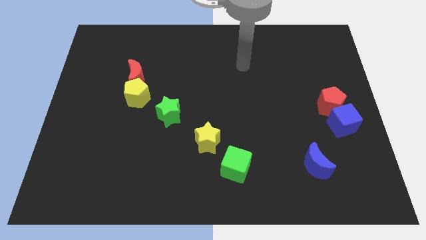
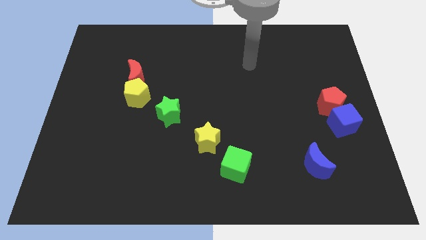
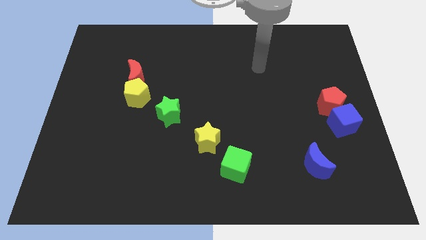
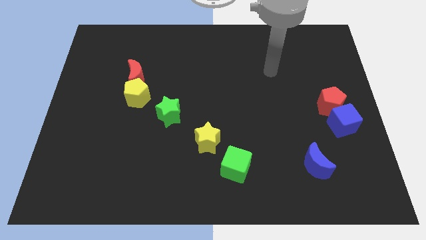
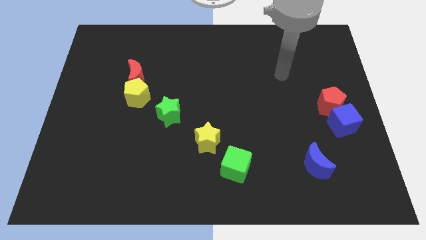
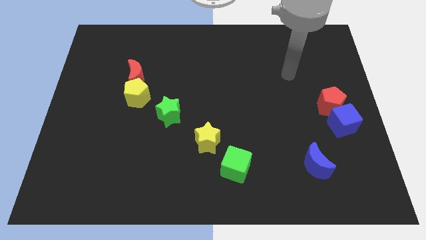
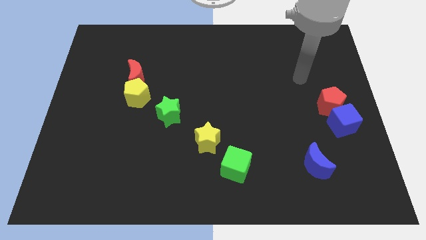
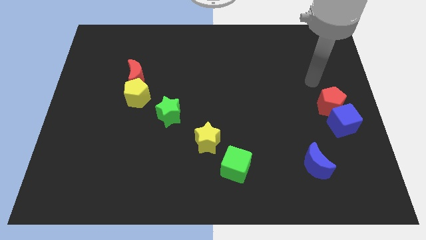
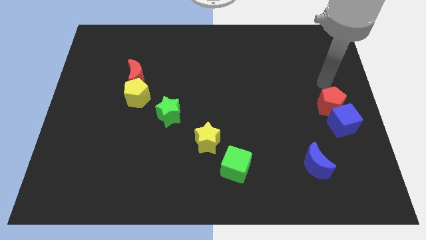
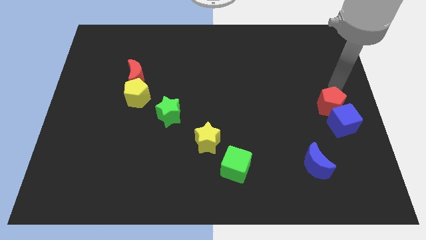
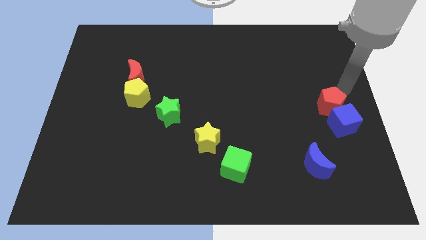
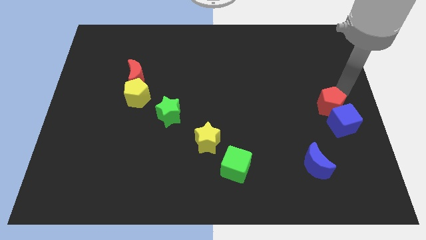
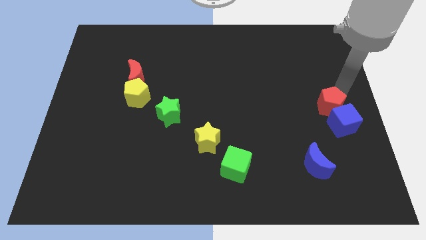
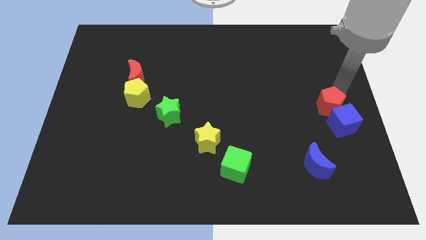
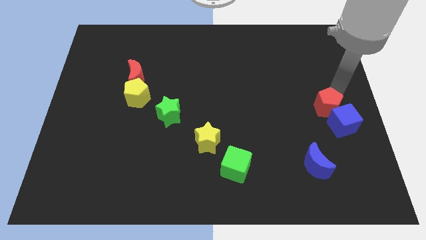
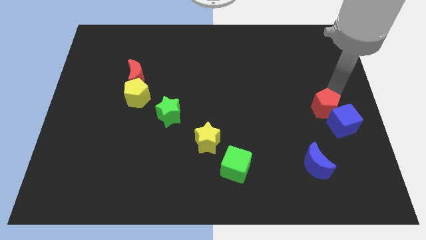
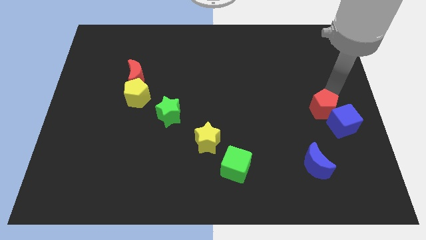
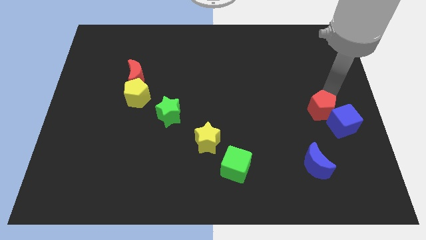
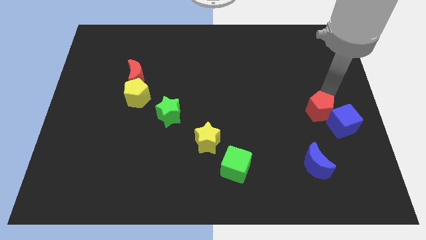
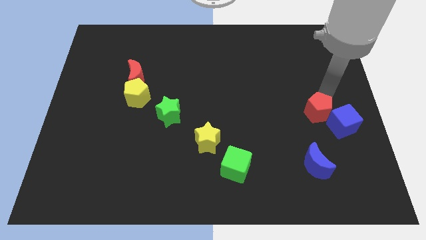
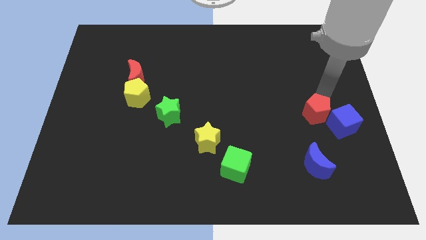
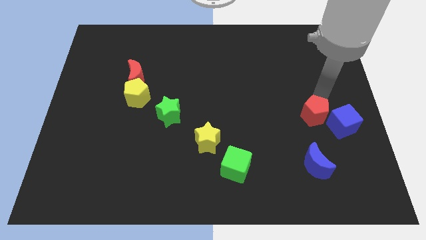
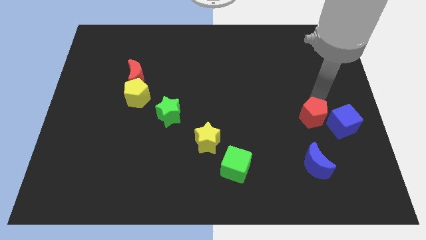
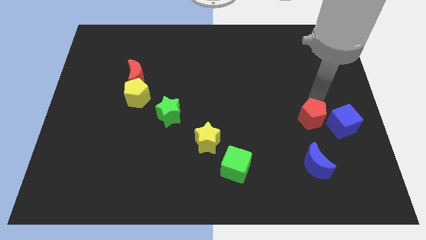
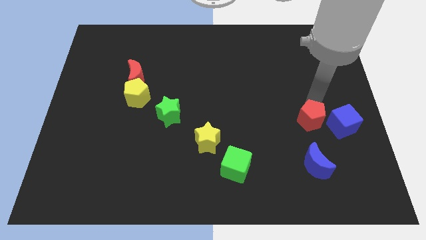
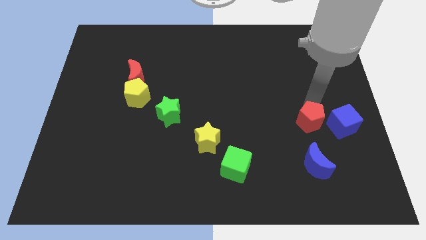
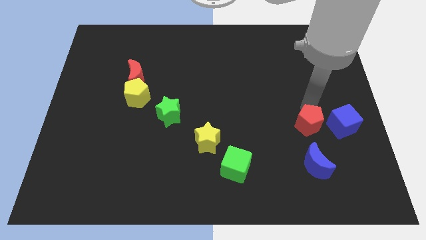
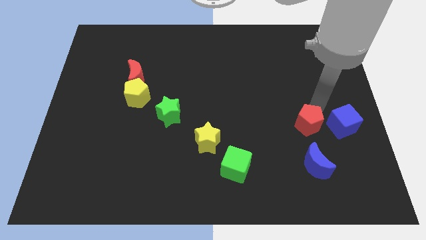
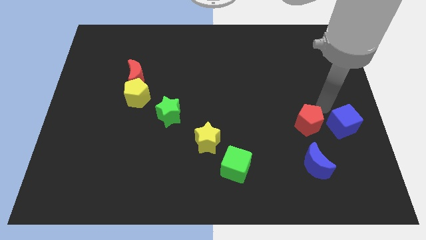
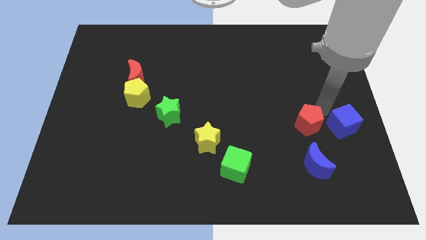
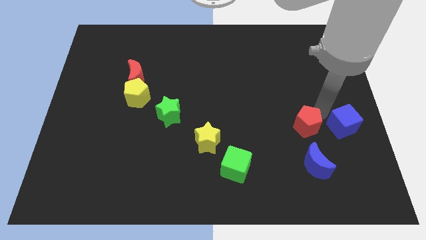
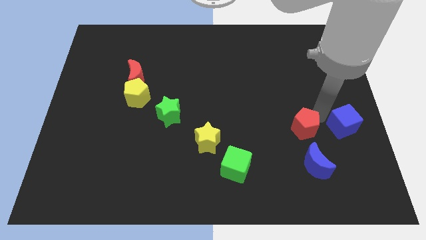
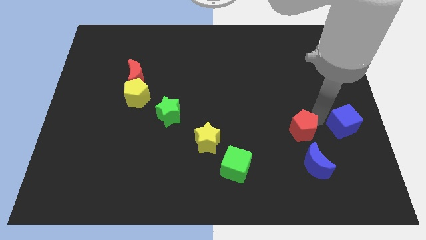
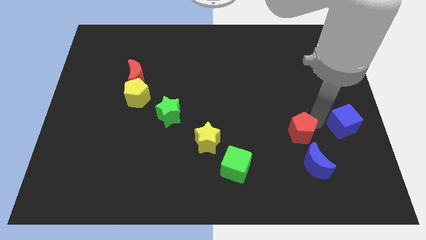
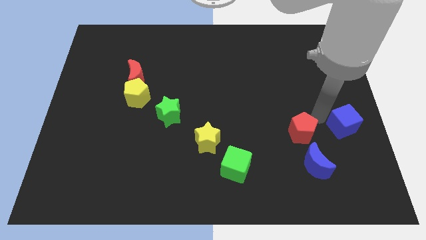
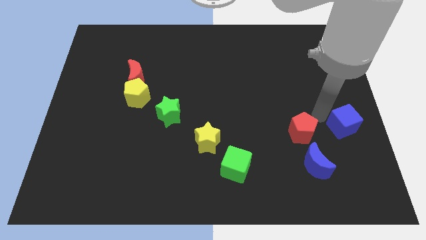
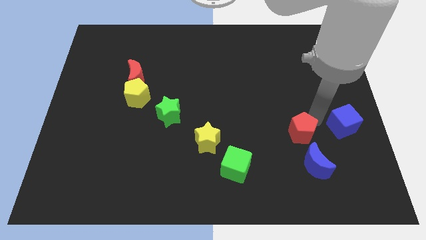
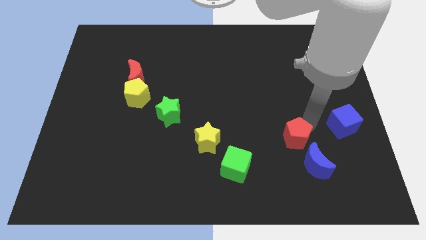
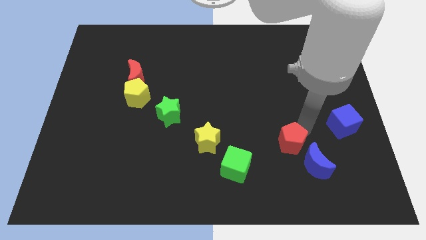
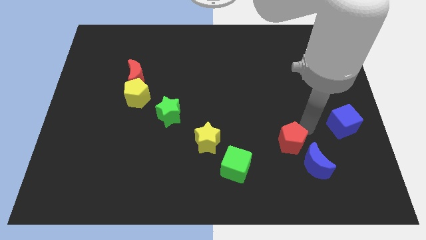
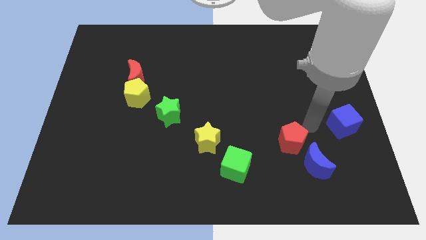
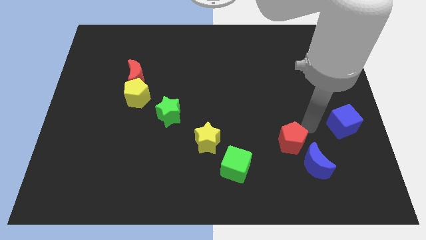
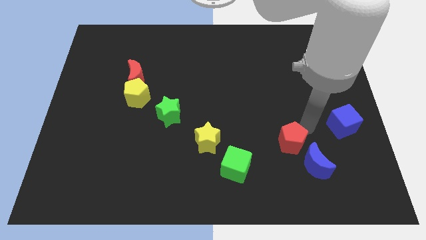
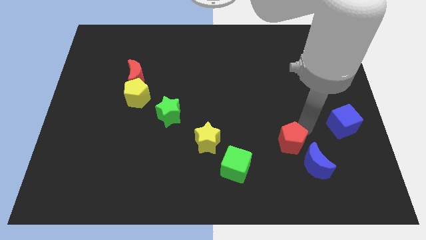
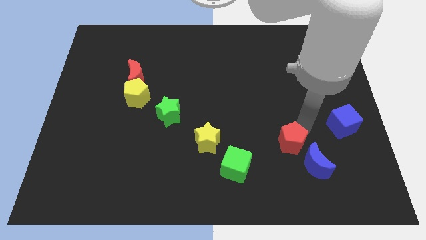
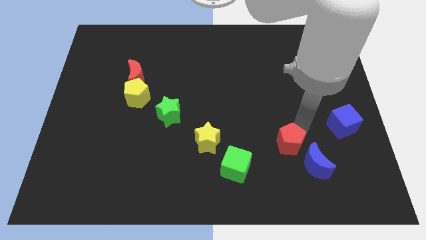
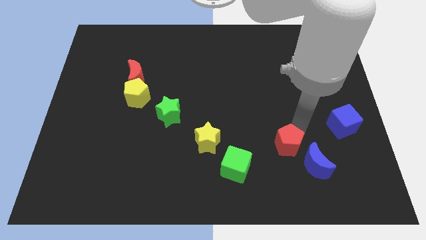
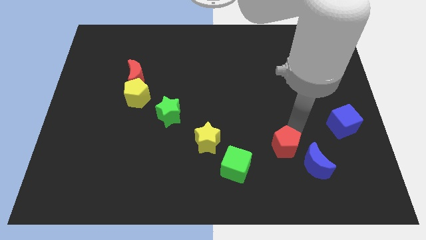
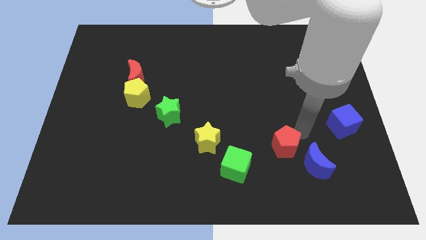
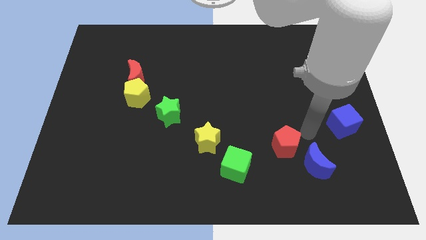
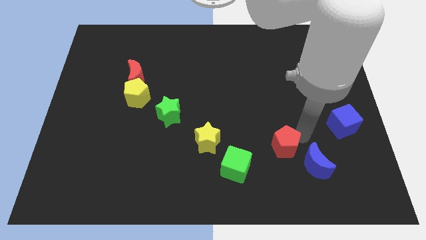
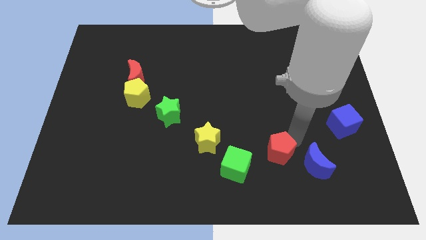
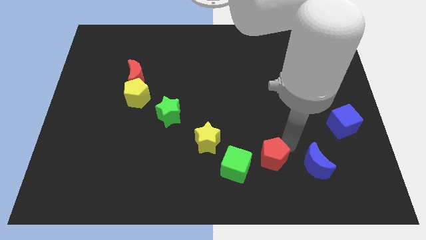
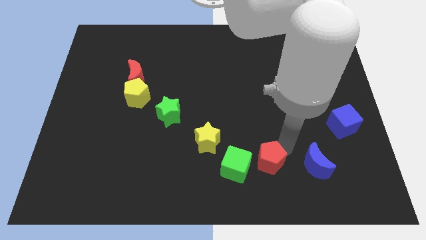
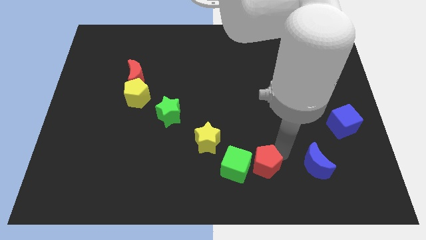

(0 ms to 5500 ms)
put the red pentagon to the green cube

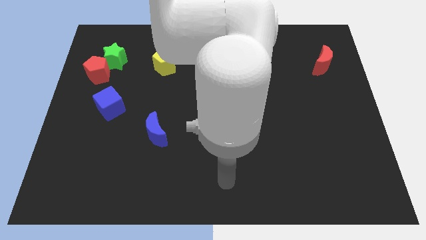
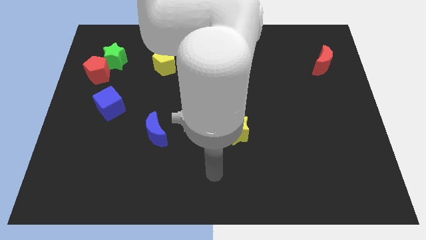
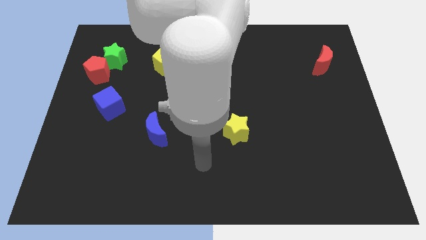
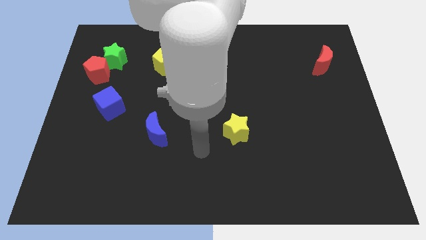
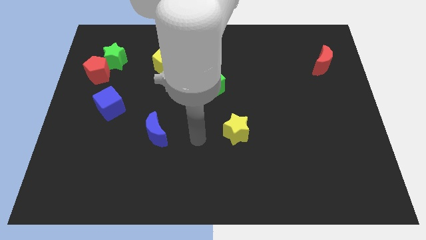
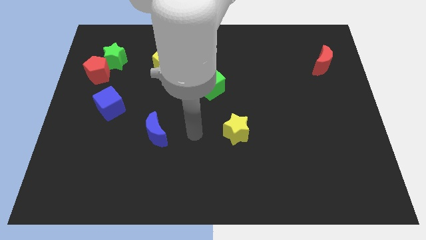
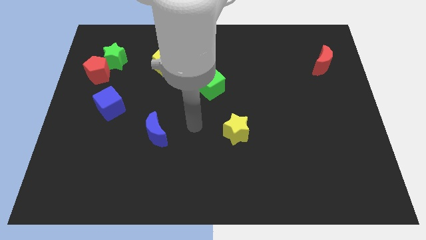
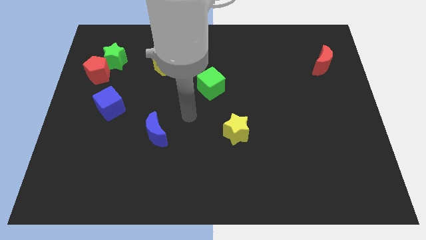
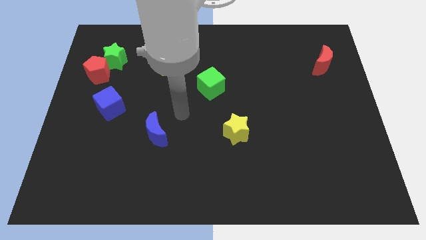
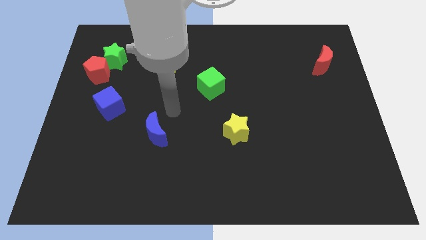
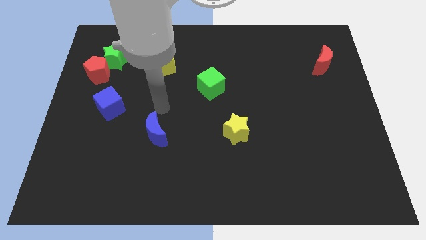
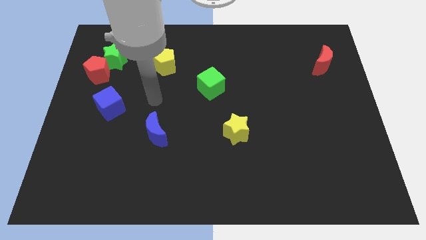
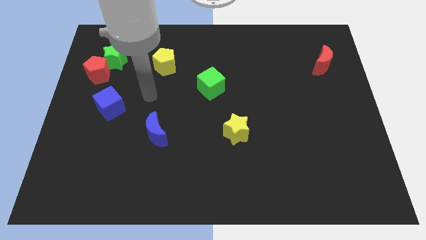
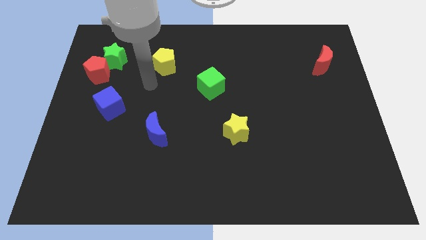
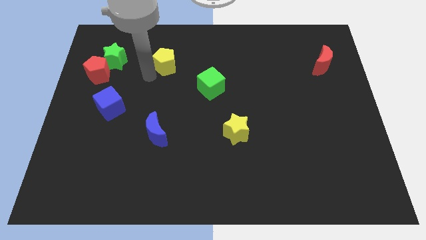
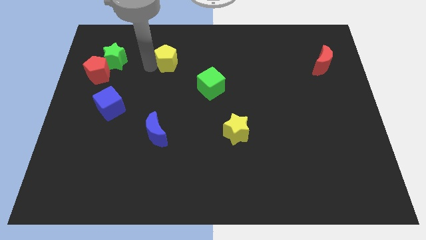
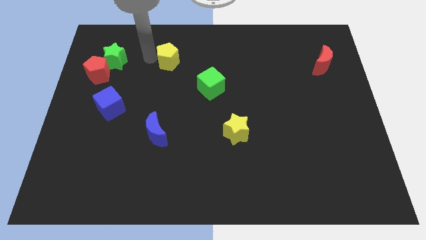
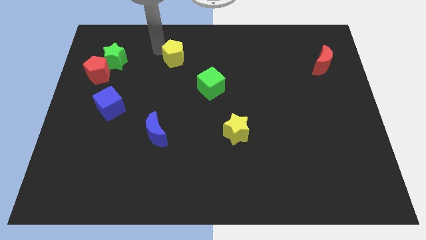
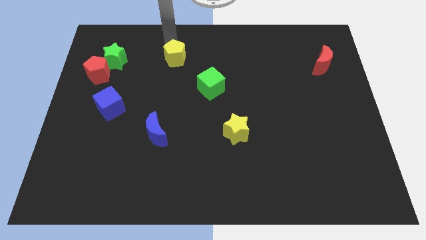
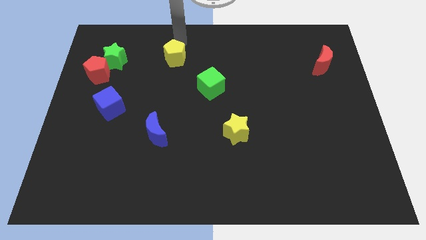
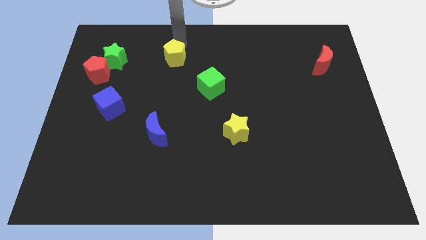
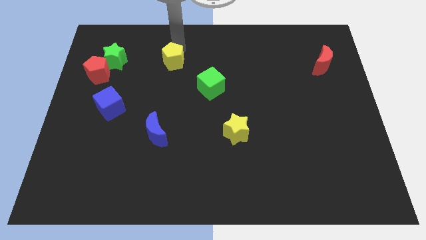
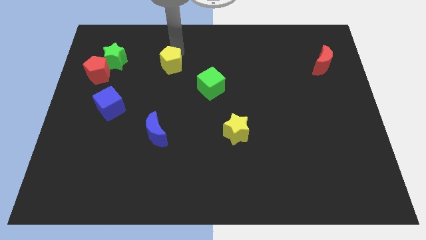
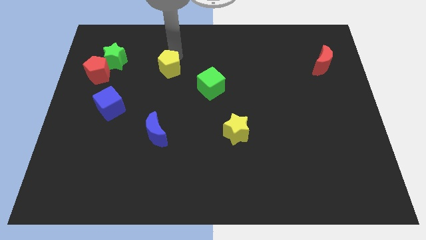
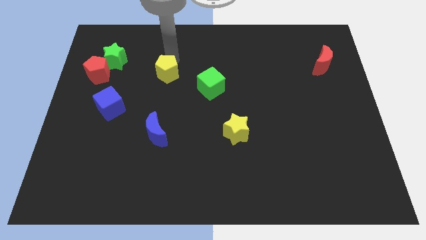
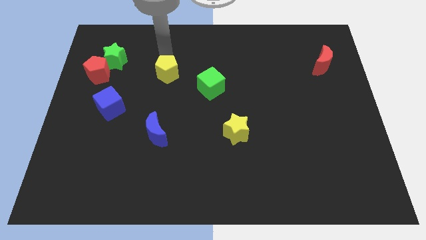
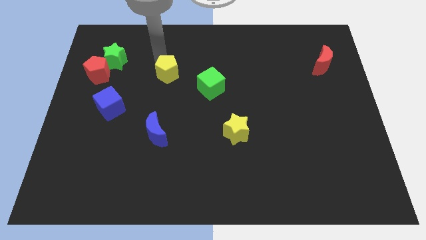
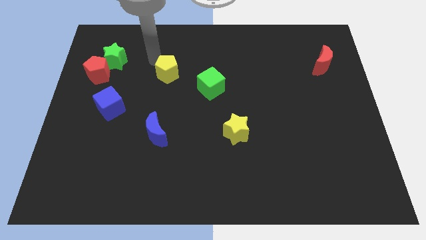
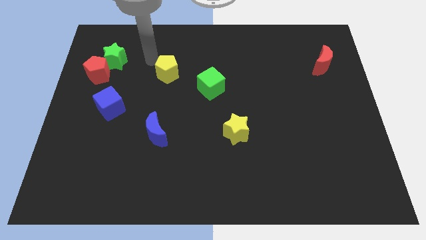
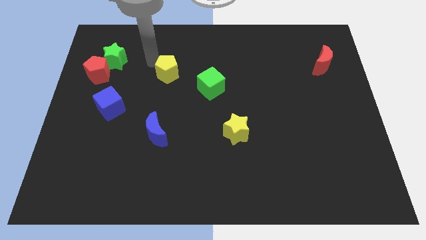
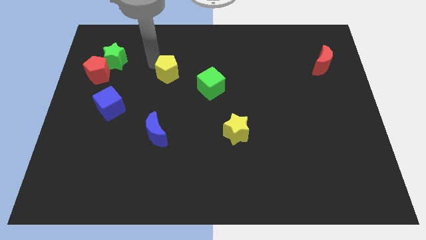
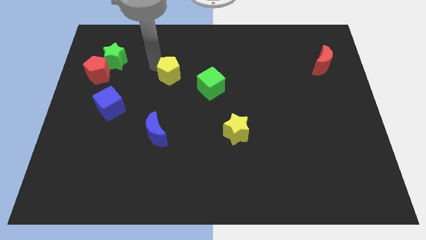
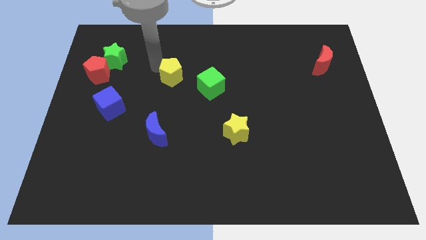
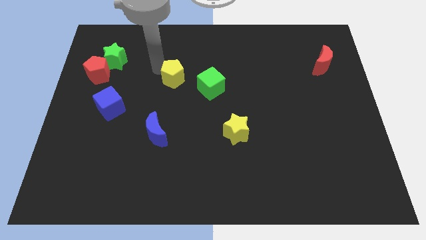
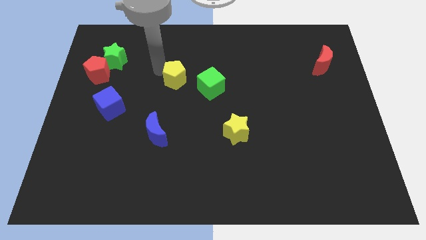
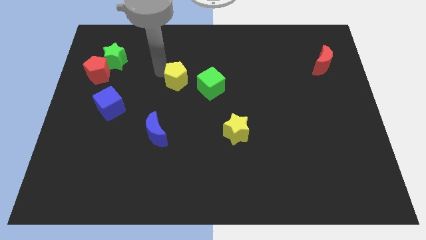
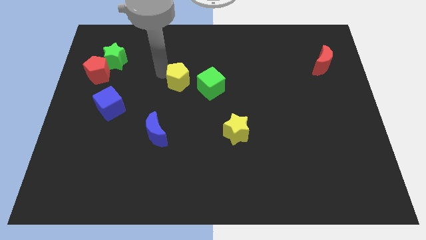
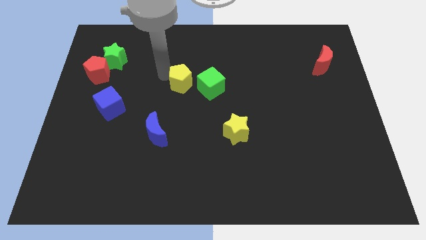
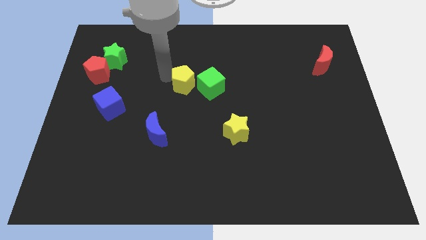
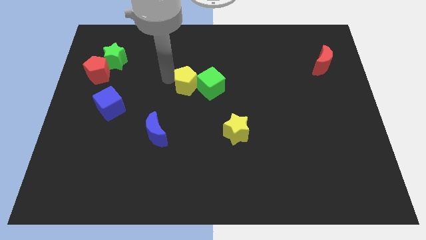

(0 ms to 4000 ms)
put the yellow pentagon to the green cube
